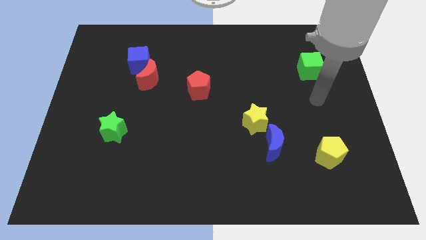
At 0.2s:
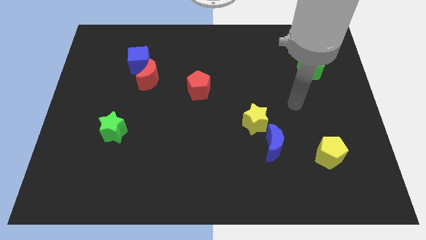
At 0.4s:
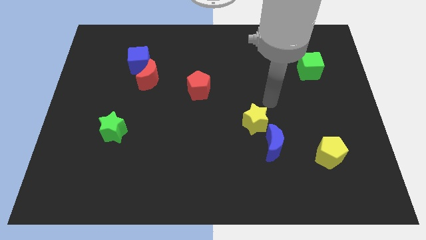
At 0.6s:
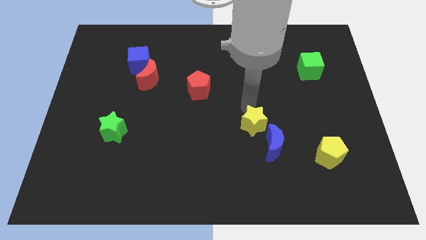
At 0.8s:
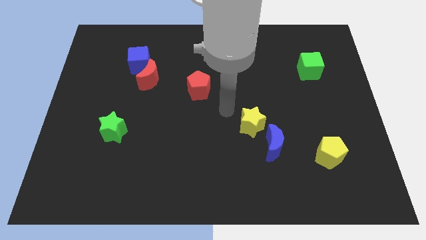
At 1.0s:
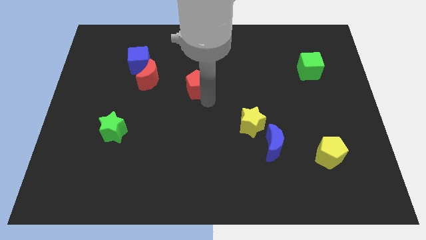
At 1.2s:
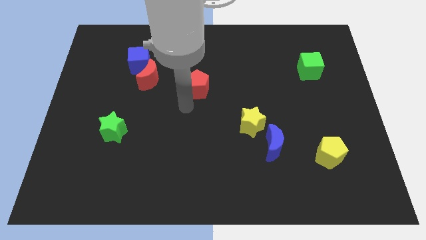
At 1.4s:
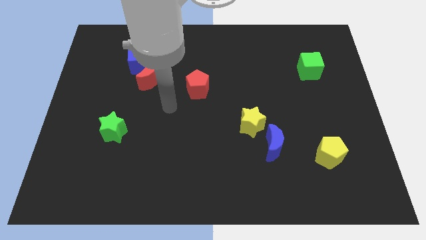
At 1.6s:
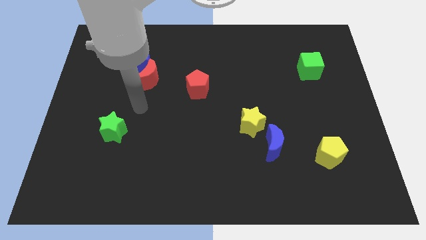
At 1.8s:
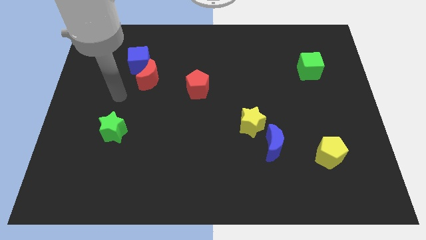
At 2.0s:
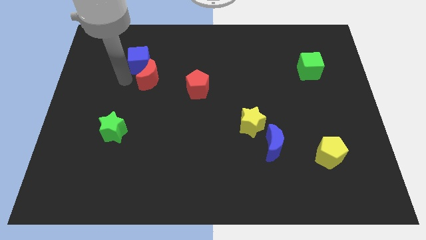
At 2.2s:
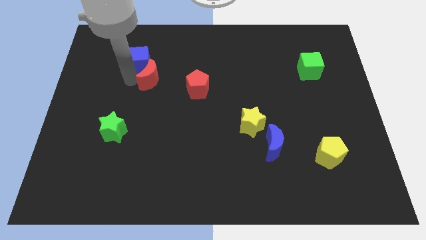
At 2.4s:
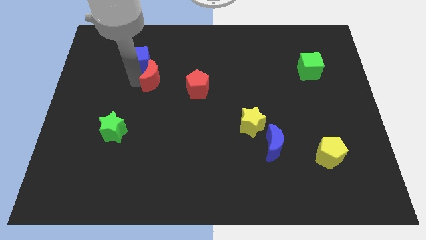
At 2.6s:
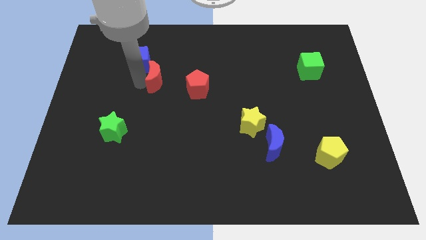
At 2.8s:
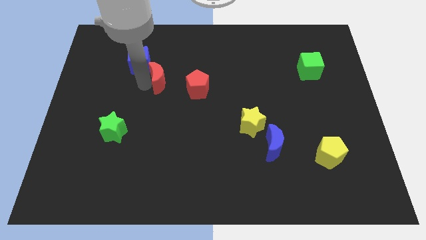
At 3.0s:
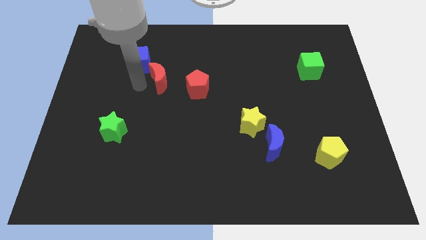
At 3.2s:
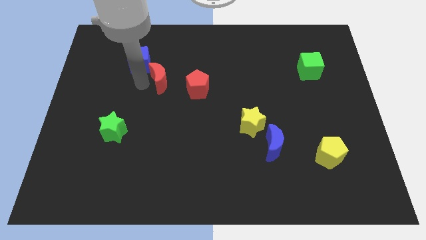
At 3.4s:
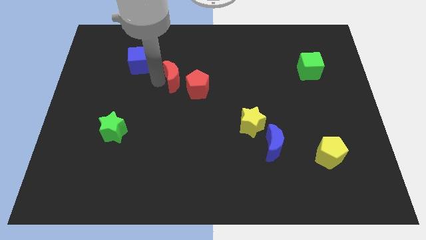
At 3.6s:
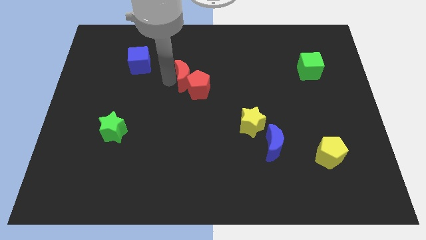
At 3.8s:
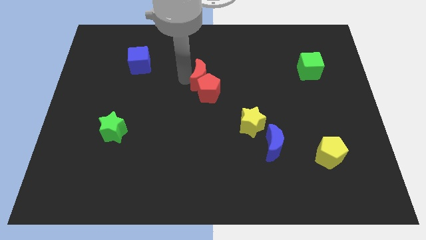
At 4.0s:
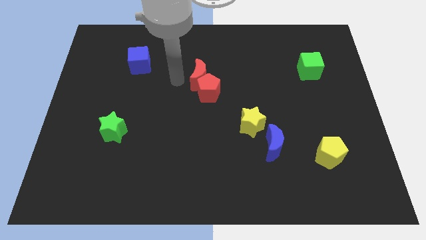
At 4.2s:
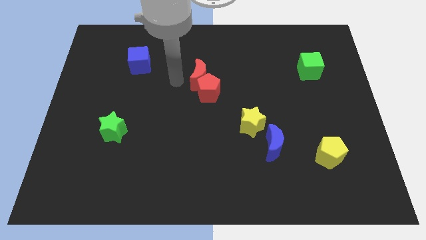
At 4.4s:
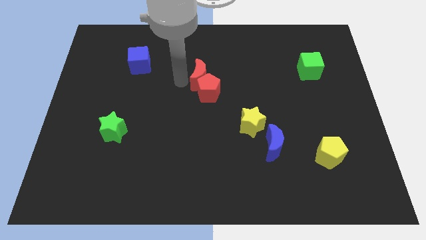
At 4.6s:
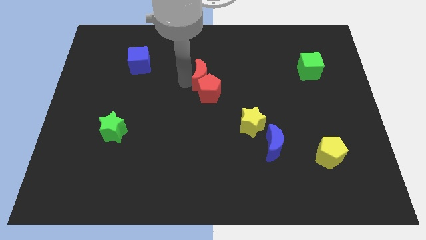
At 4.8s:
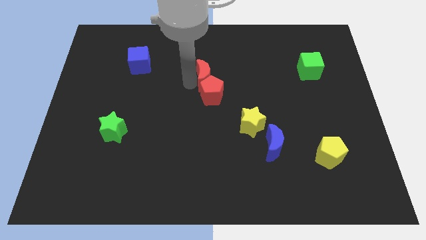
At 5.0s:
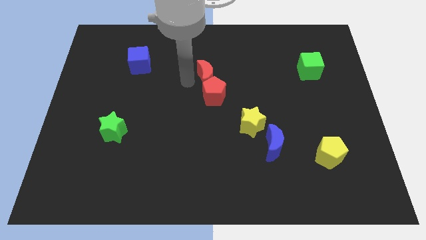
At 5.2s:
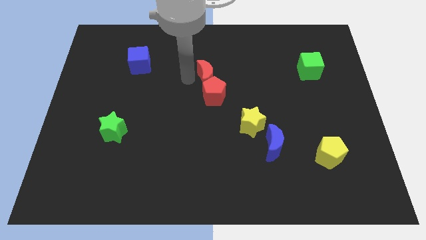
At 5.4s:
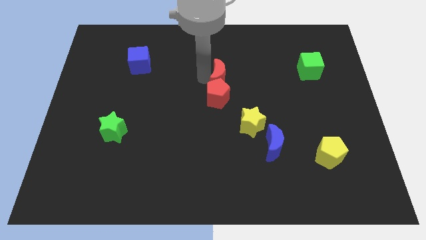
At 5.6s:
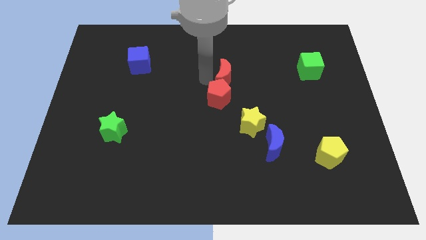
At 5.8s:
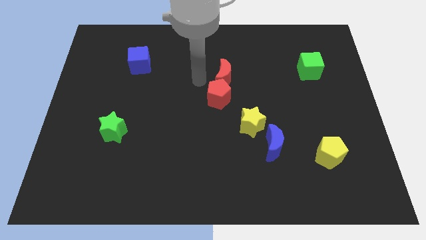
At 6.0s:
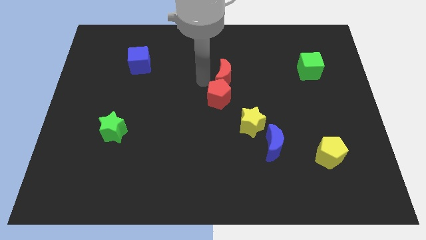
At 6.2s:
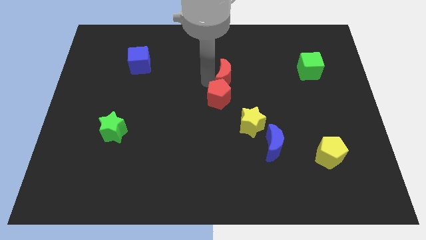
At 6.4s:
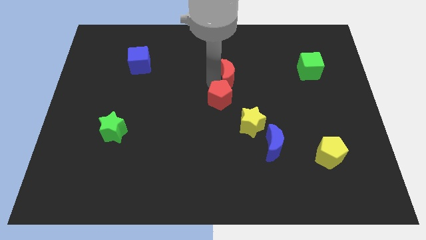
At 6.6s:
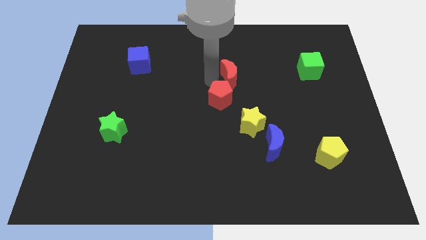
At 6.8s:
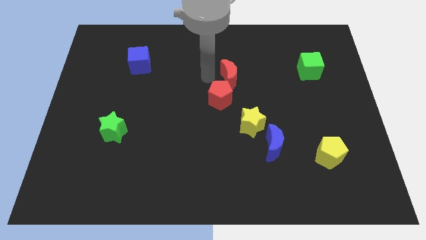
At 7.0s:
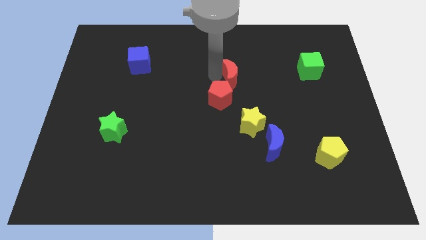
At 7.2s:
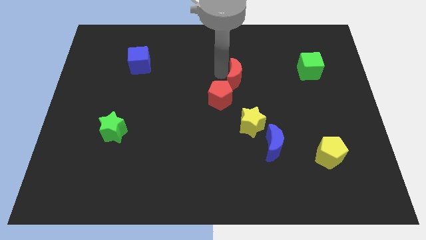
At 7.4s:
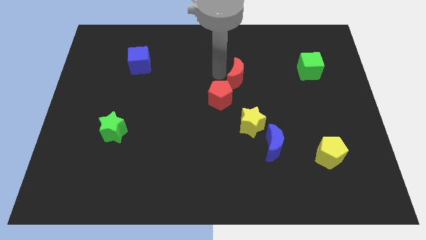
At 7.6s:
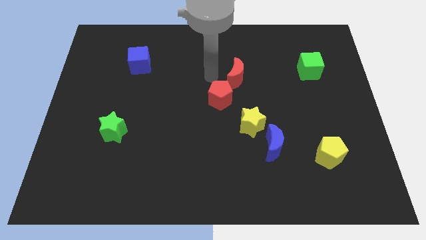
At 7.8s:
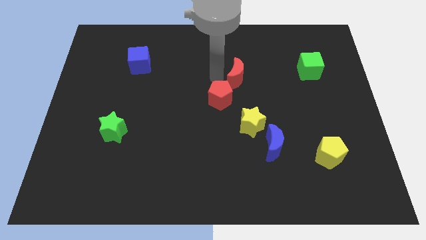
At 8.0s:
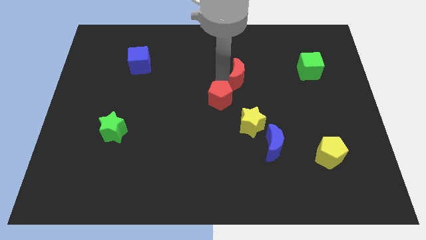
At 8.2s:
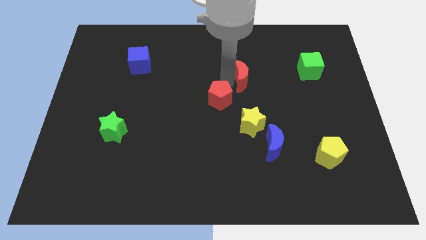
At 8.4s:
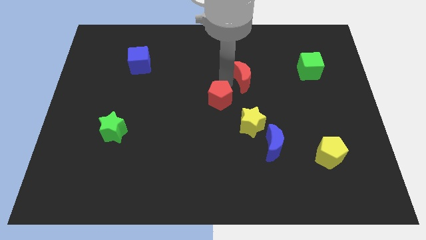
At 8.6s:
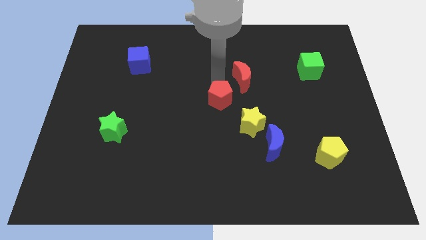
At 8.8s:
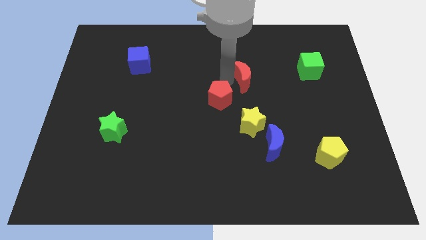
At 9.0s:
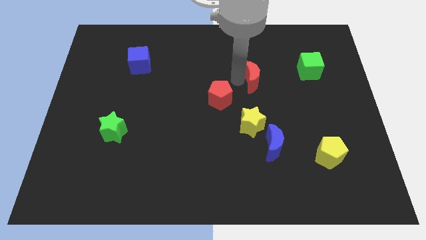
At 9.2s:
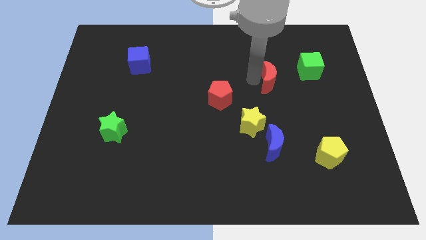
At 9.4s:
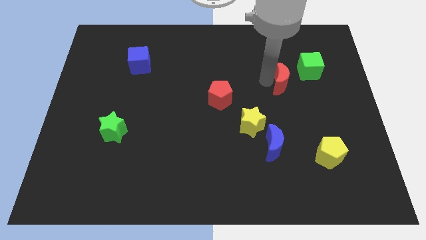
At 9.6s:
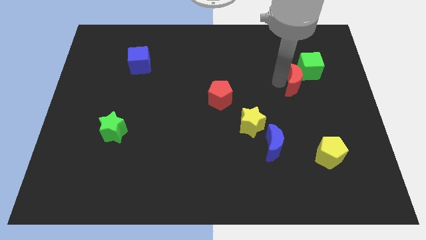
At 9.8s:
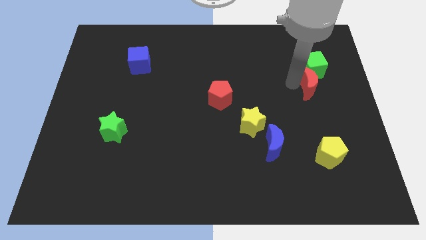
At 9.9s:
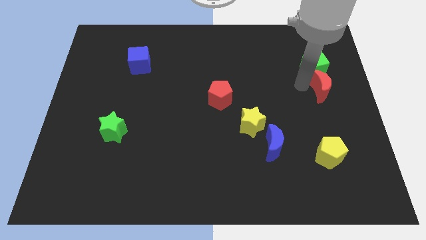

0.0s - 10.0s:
move the red moon to the right side of the board
